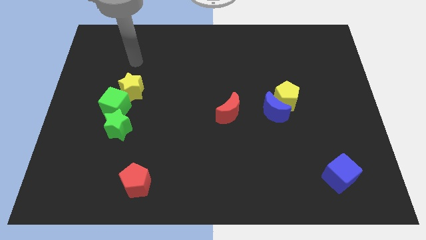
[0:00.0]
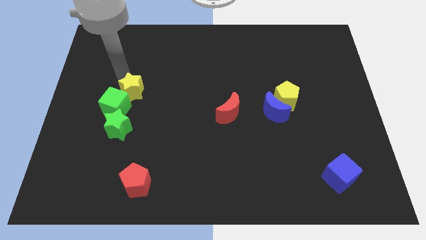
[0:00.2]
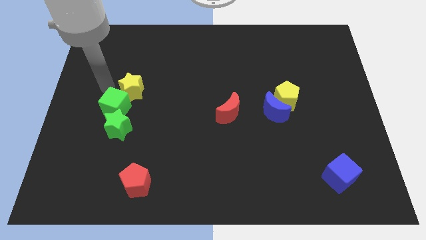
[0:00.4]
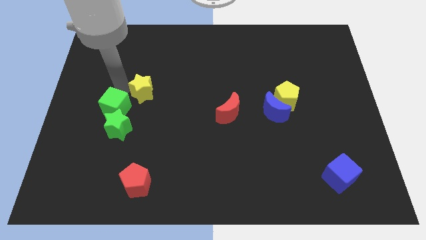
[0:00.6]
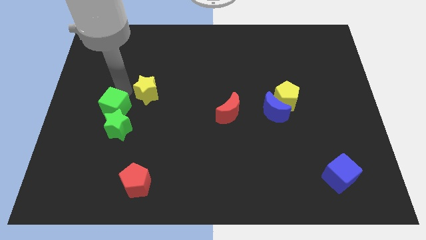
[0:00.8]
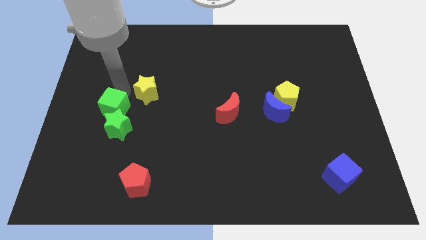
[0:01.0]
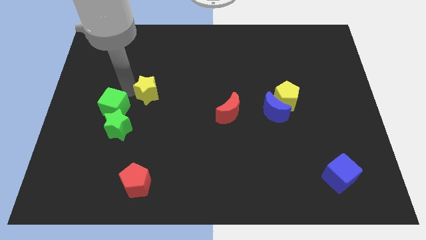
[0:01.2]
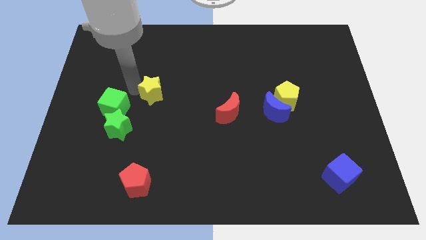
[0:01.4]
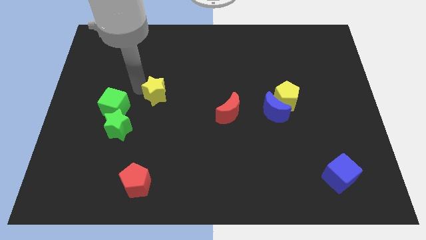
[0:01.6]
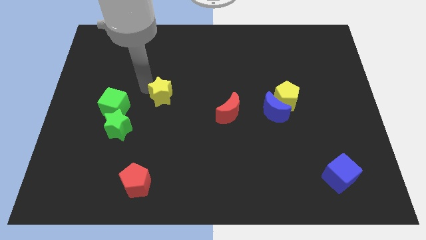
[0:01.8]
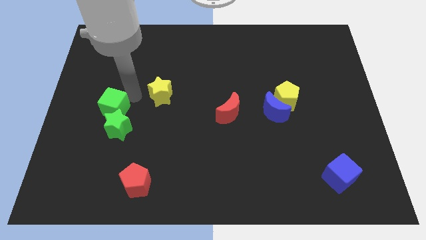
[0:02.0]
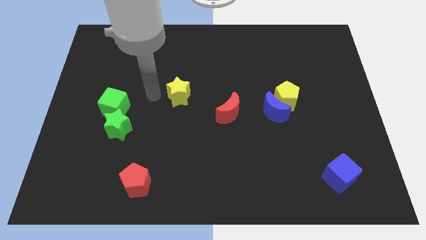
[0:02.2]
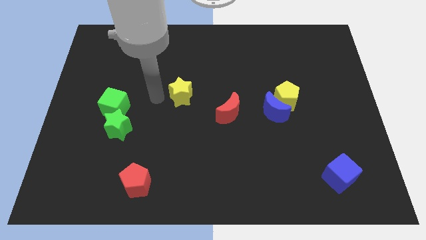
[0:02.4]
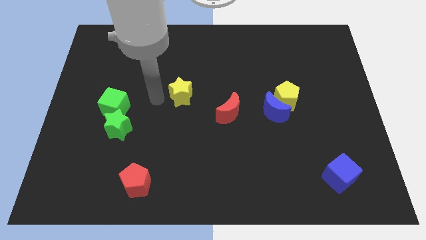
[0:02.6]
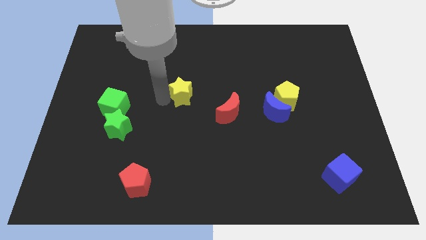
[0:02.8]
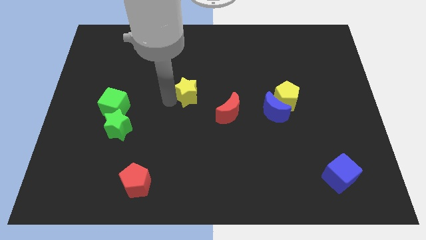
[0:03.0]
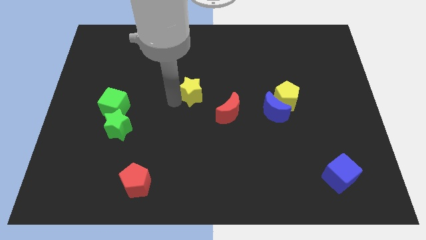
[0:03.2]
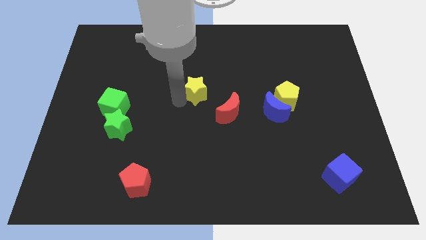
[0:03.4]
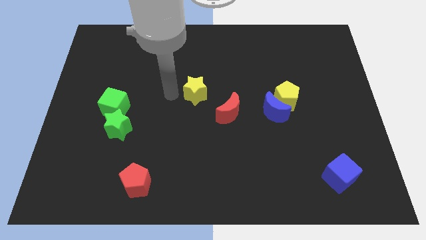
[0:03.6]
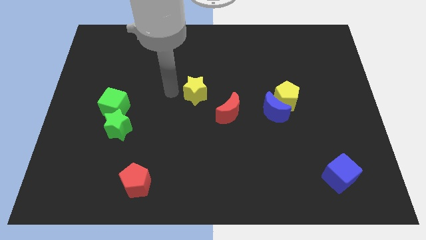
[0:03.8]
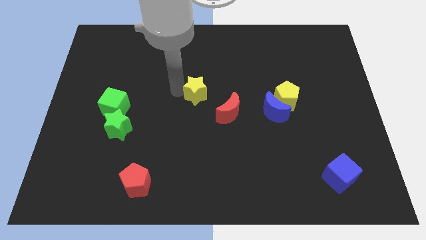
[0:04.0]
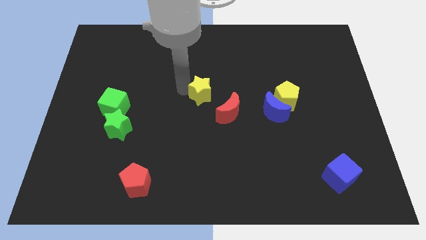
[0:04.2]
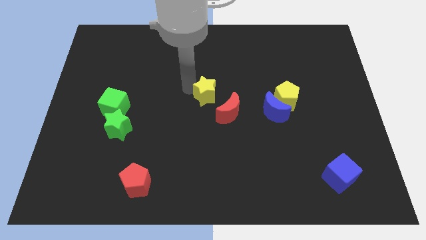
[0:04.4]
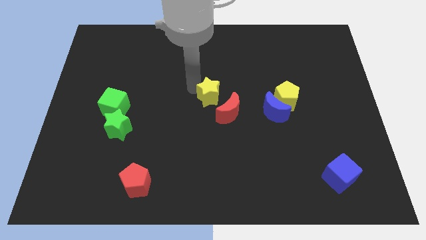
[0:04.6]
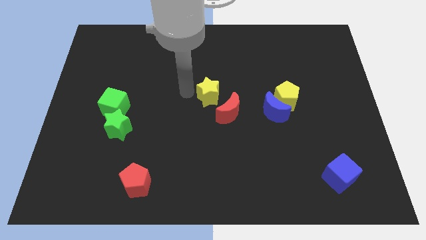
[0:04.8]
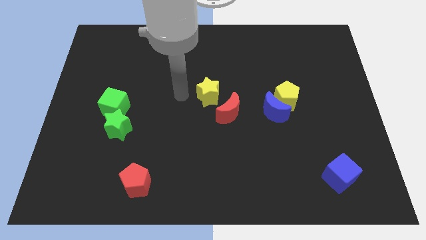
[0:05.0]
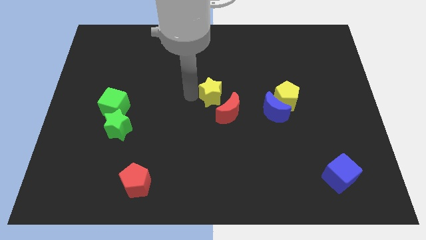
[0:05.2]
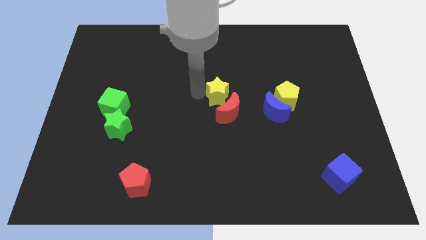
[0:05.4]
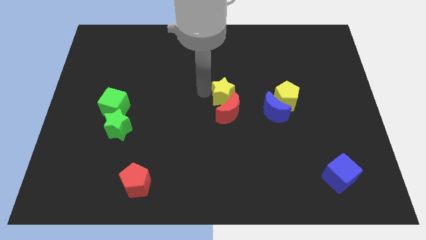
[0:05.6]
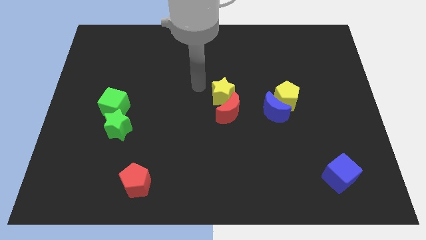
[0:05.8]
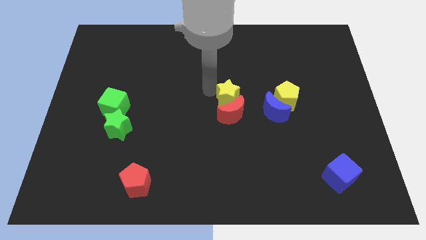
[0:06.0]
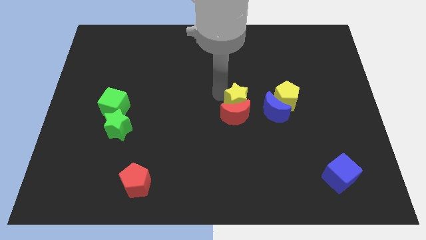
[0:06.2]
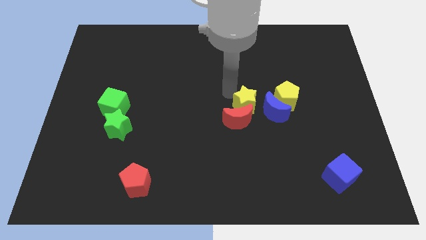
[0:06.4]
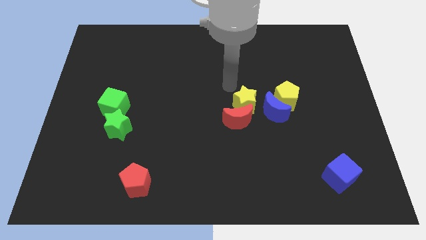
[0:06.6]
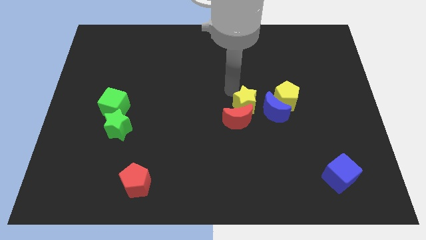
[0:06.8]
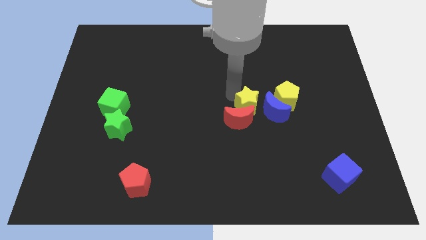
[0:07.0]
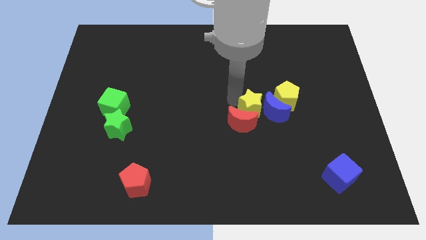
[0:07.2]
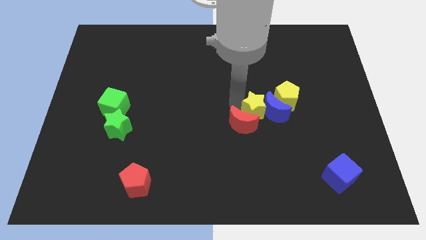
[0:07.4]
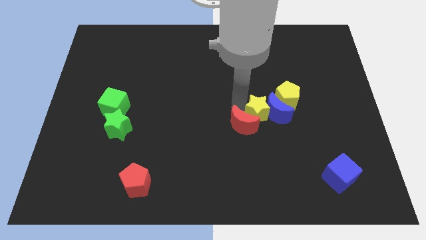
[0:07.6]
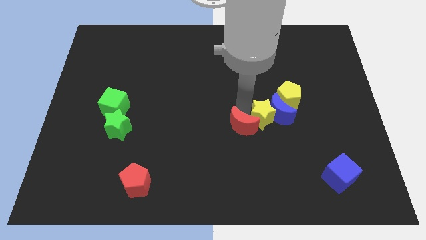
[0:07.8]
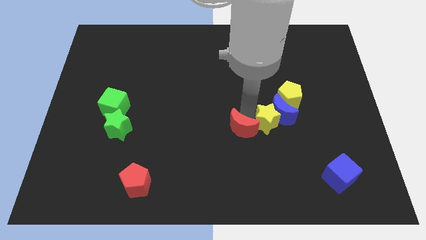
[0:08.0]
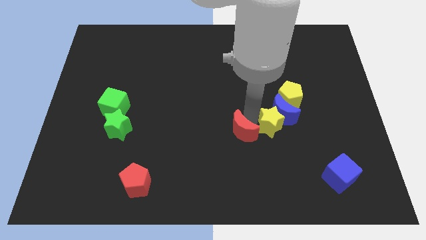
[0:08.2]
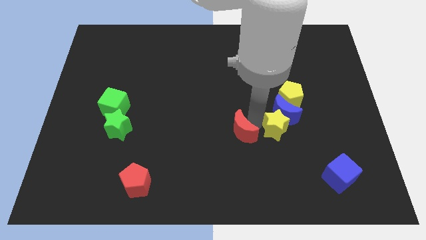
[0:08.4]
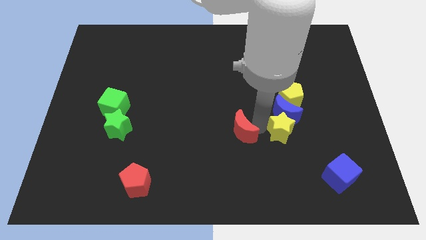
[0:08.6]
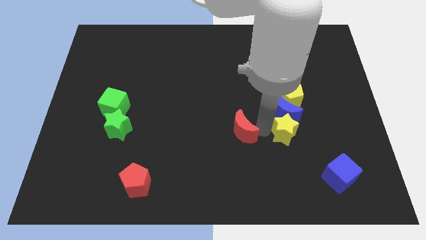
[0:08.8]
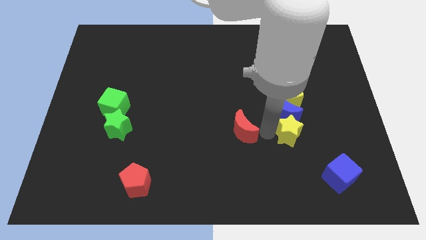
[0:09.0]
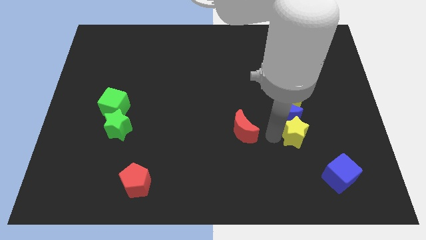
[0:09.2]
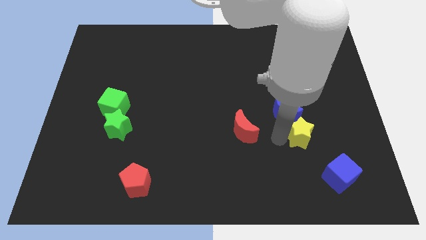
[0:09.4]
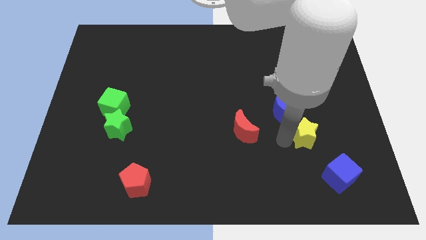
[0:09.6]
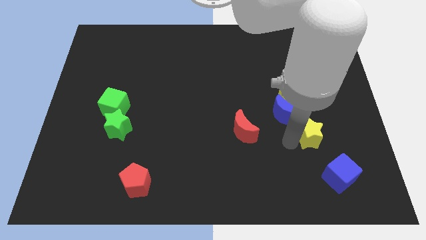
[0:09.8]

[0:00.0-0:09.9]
slide the yellow star above the blue cube

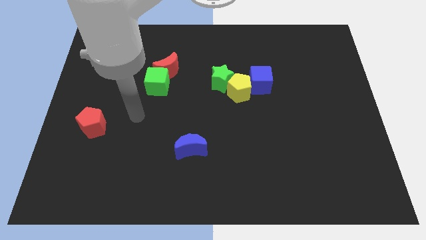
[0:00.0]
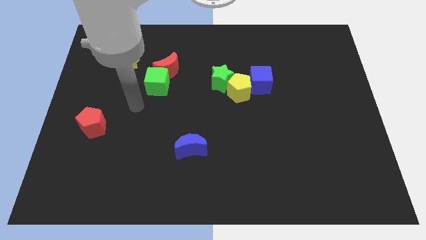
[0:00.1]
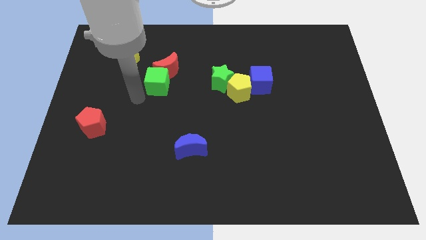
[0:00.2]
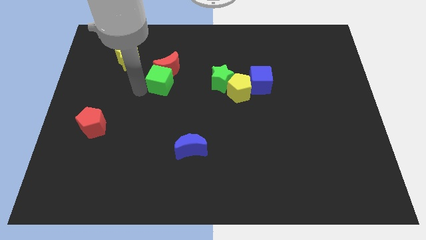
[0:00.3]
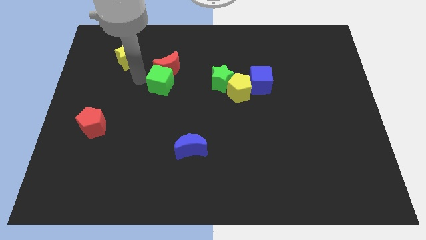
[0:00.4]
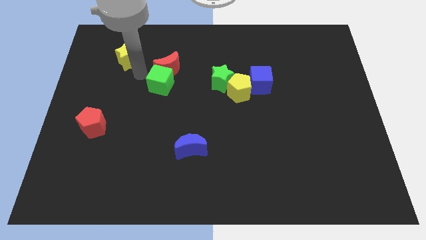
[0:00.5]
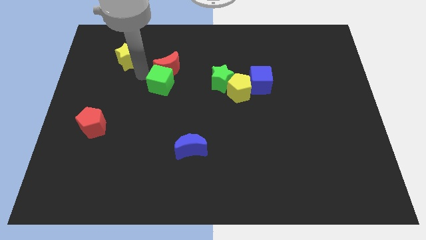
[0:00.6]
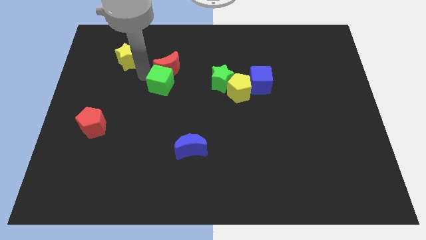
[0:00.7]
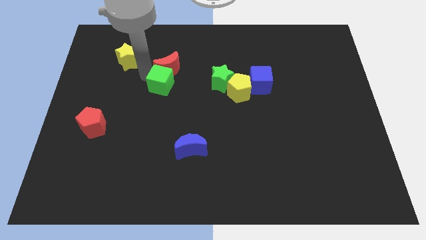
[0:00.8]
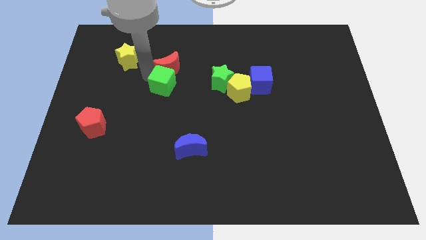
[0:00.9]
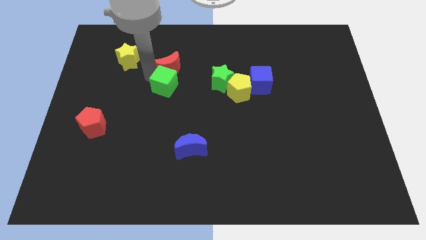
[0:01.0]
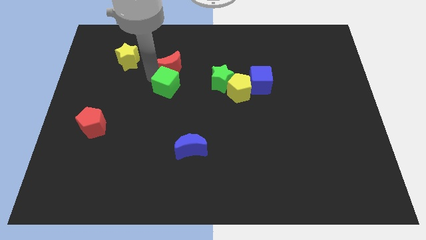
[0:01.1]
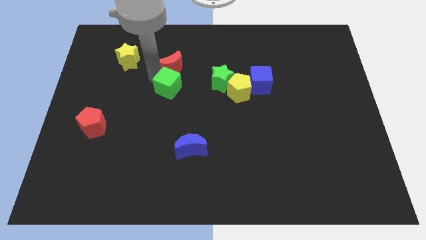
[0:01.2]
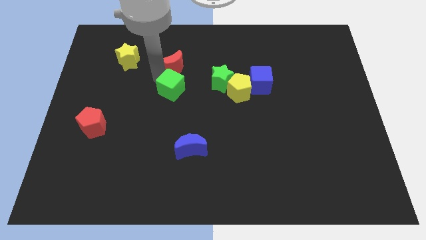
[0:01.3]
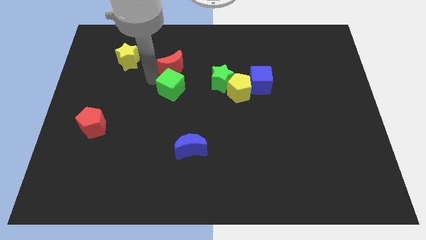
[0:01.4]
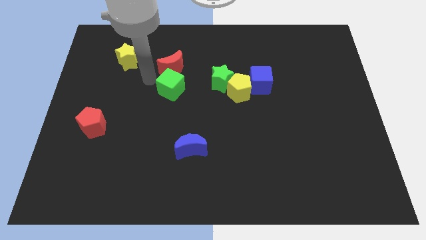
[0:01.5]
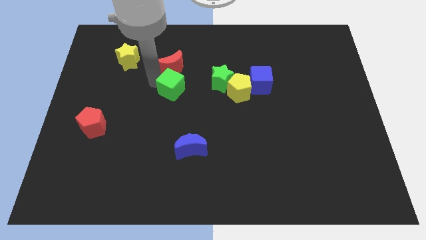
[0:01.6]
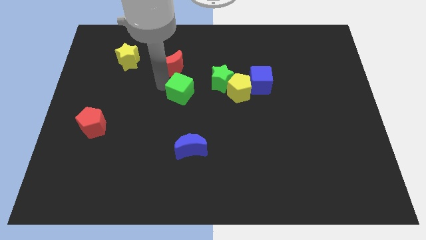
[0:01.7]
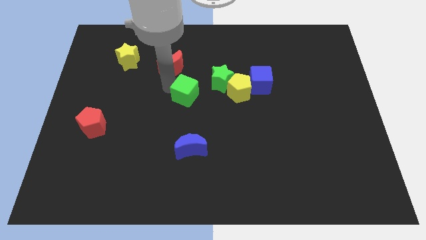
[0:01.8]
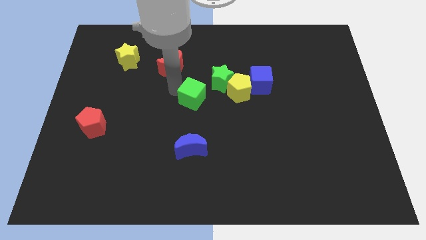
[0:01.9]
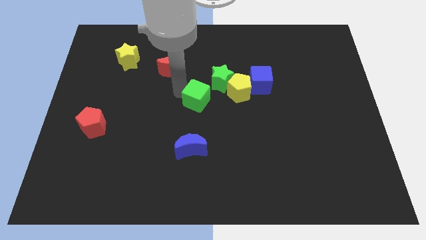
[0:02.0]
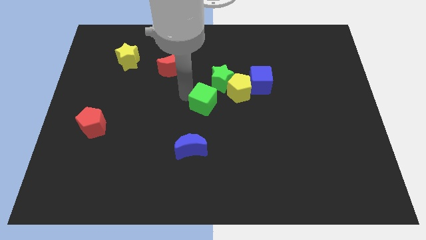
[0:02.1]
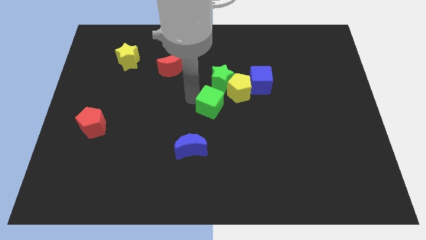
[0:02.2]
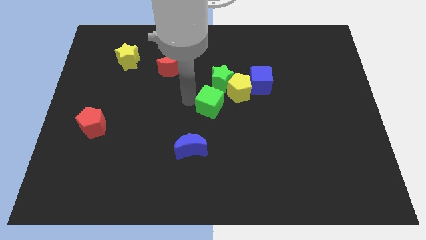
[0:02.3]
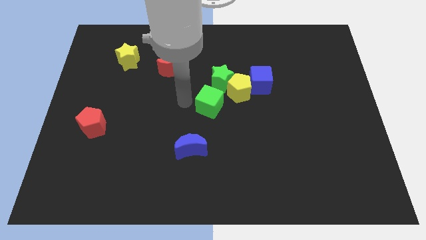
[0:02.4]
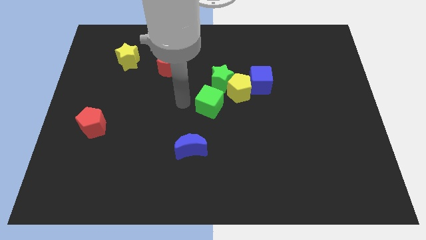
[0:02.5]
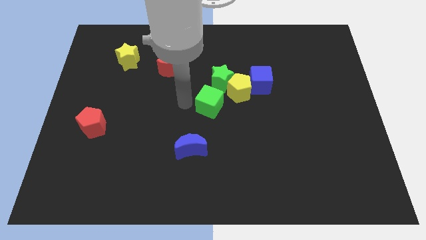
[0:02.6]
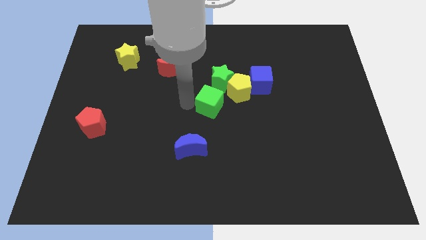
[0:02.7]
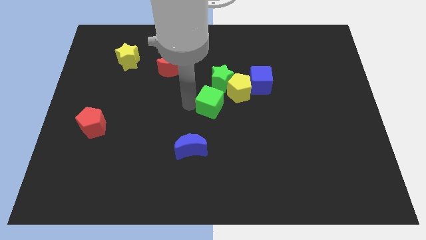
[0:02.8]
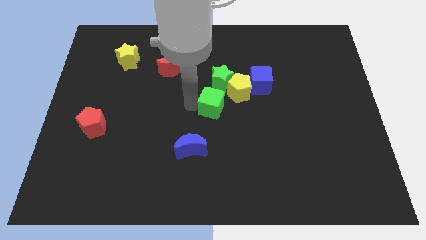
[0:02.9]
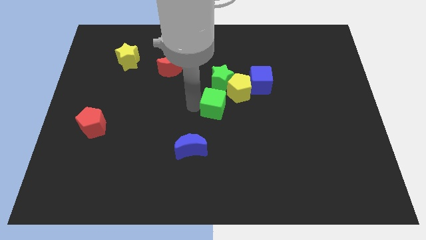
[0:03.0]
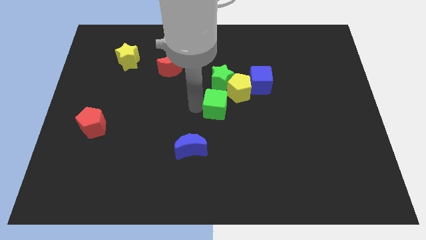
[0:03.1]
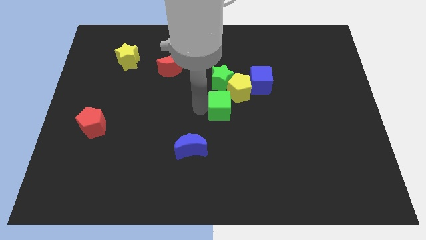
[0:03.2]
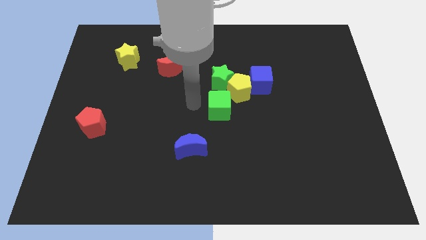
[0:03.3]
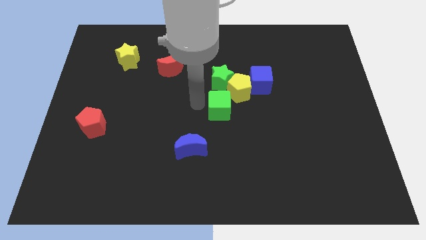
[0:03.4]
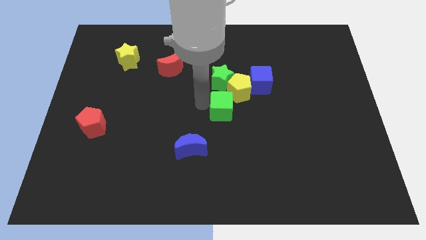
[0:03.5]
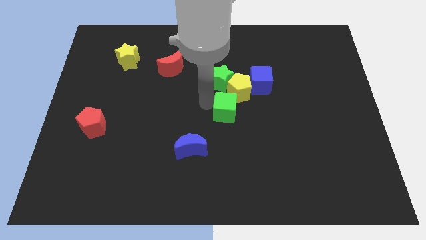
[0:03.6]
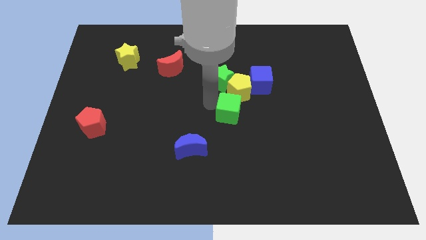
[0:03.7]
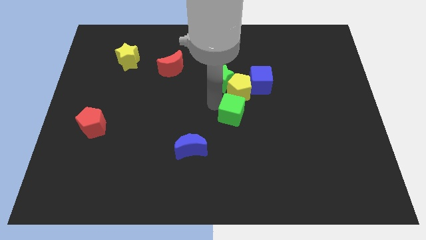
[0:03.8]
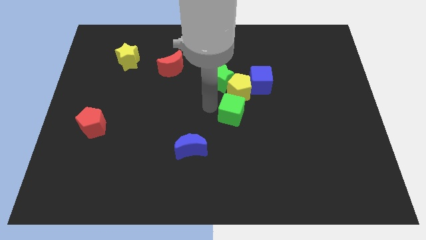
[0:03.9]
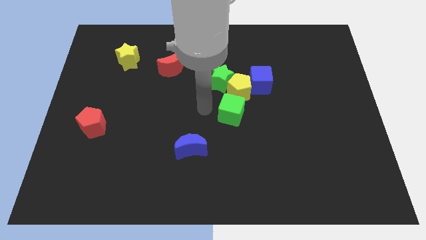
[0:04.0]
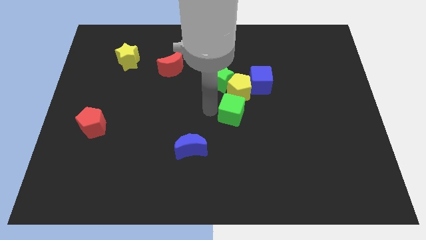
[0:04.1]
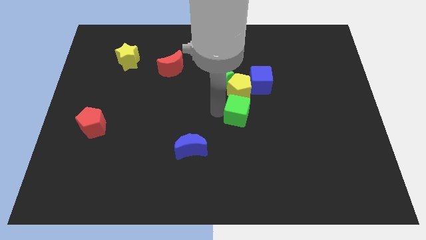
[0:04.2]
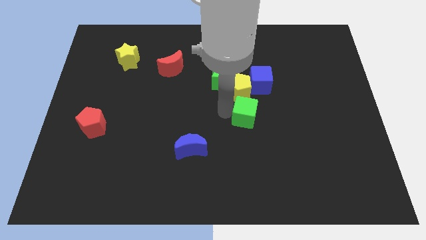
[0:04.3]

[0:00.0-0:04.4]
move the green cube to the bottom of the blue cube
